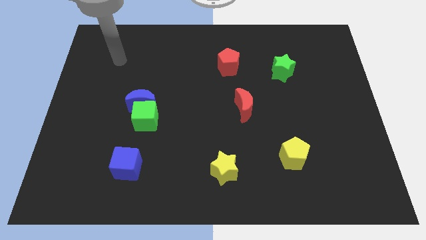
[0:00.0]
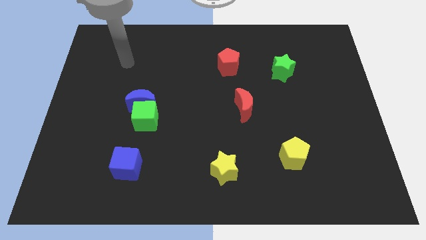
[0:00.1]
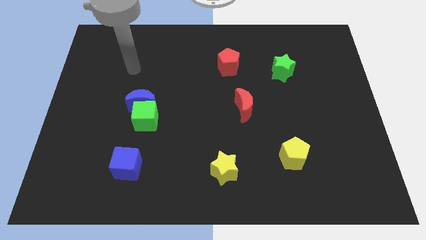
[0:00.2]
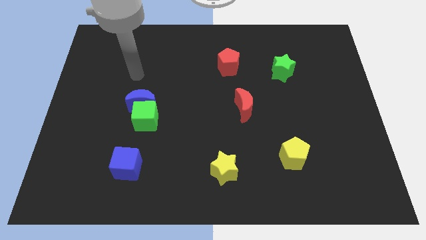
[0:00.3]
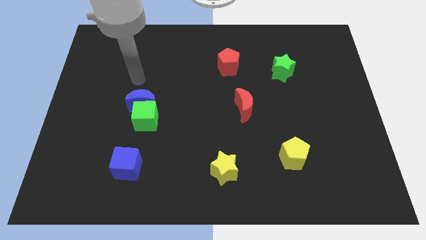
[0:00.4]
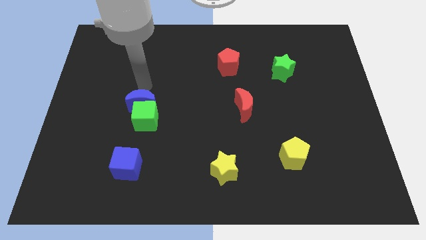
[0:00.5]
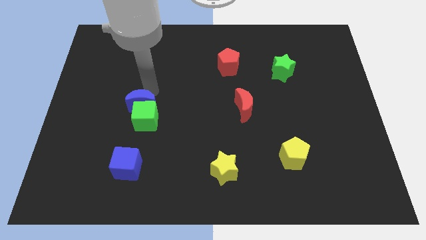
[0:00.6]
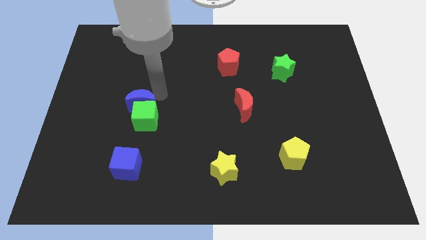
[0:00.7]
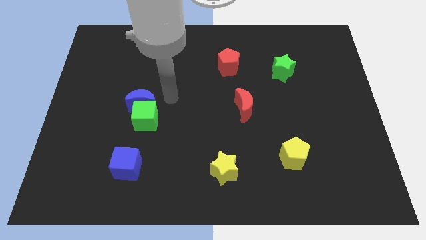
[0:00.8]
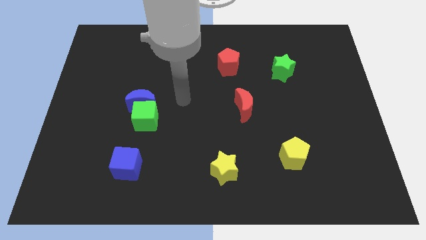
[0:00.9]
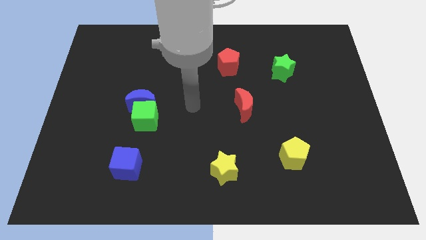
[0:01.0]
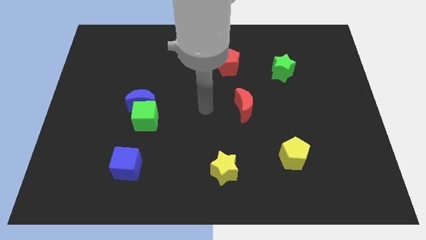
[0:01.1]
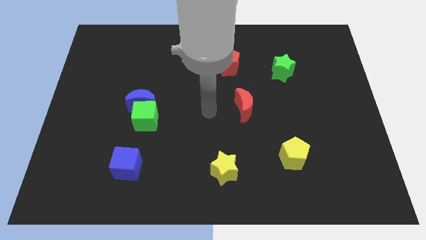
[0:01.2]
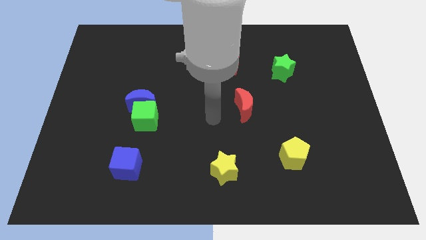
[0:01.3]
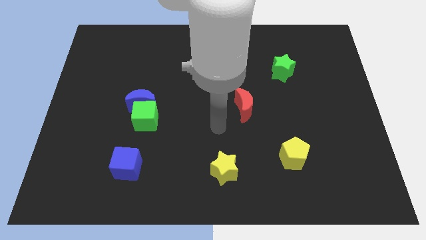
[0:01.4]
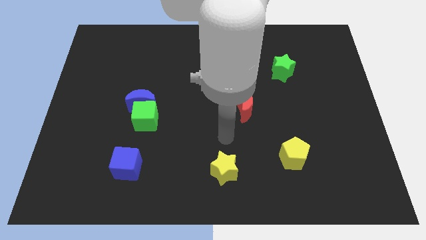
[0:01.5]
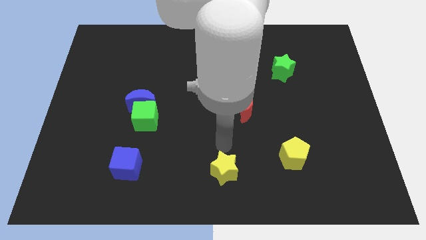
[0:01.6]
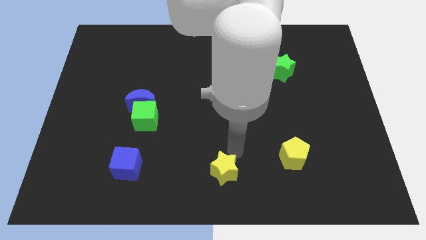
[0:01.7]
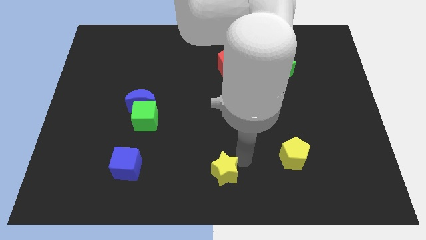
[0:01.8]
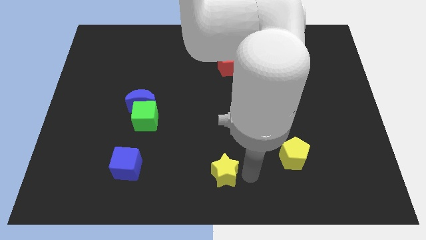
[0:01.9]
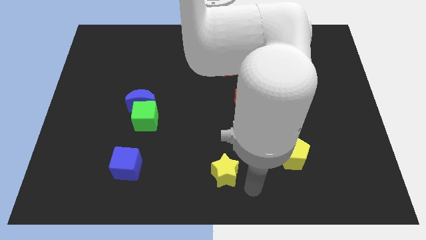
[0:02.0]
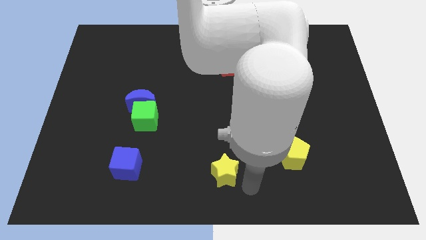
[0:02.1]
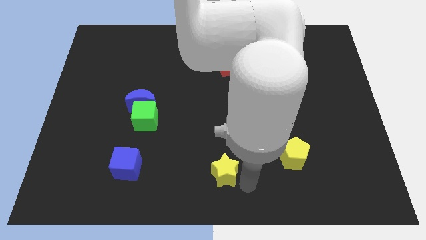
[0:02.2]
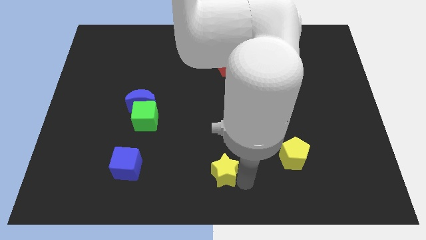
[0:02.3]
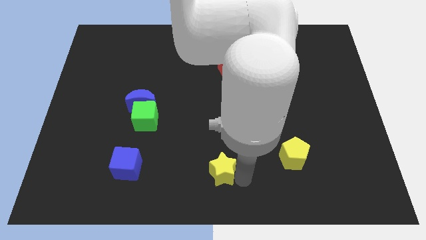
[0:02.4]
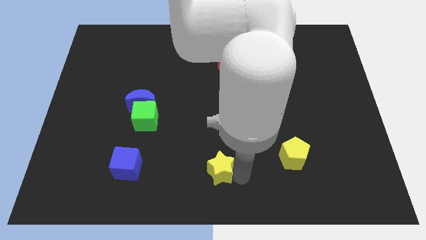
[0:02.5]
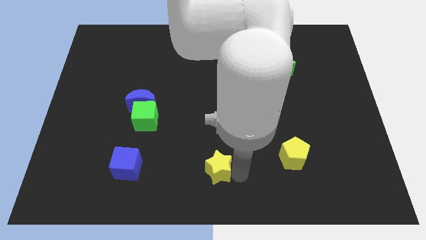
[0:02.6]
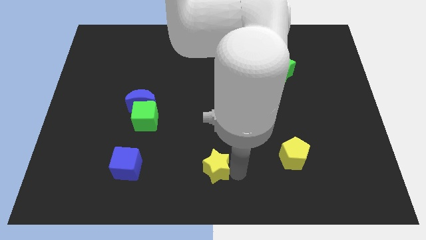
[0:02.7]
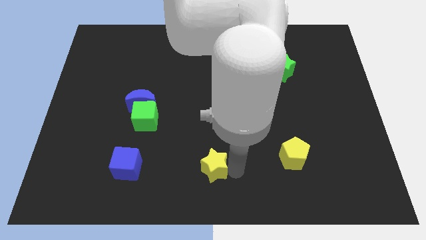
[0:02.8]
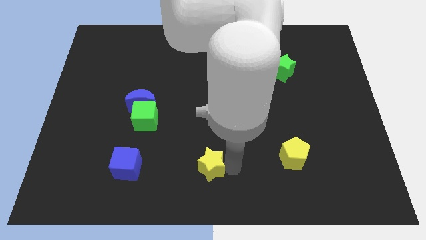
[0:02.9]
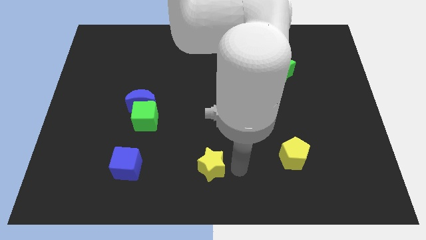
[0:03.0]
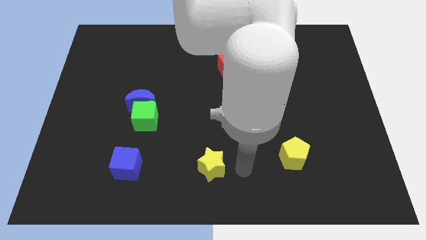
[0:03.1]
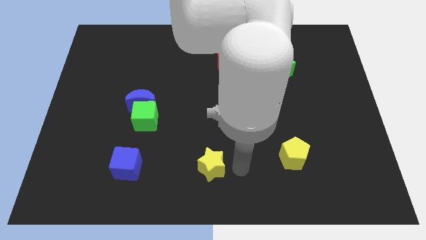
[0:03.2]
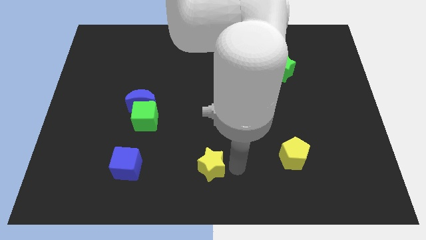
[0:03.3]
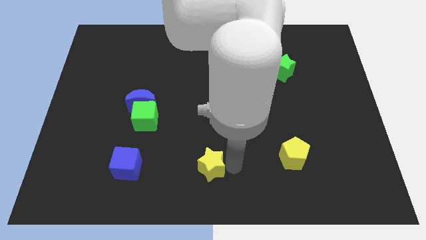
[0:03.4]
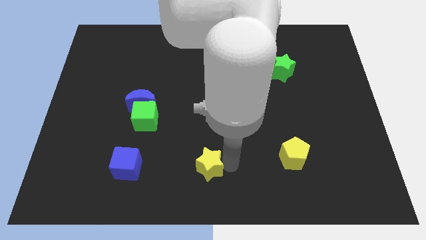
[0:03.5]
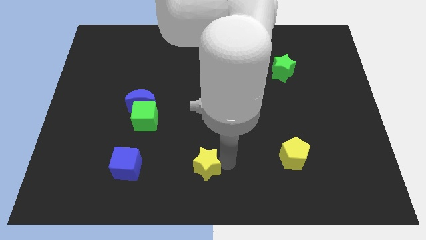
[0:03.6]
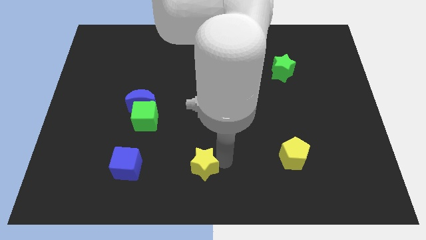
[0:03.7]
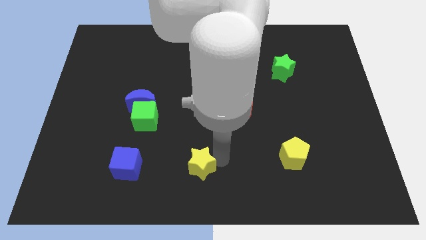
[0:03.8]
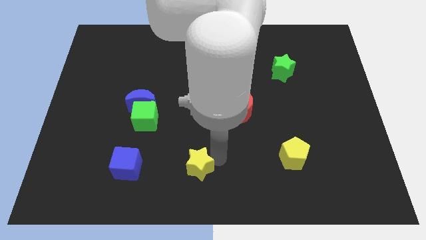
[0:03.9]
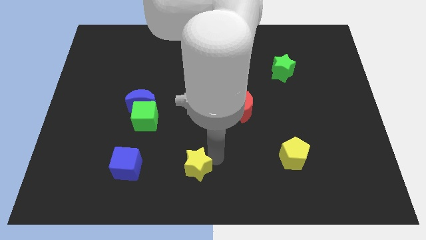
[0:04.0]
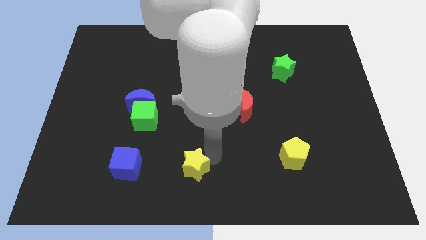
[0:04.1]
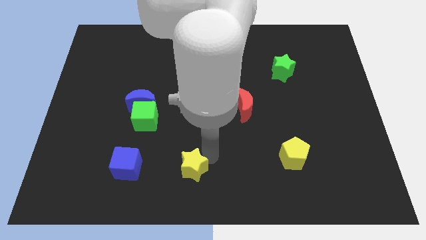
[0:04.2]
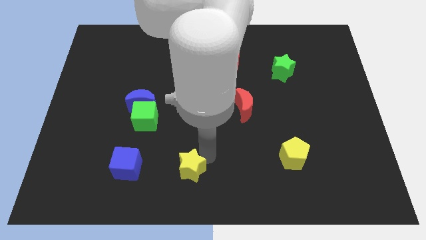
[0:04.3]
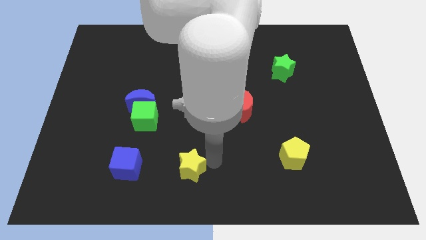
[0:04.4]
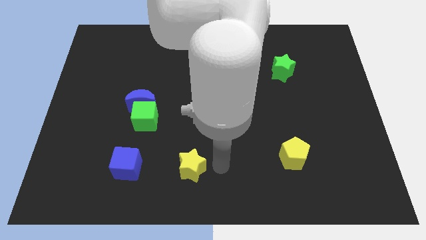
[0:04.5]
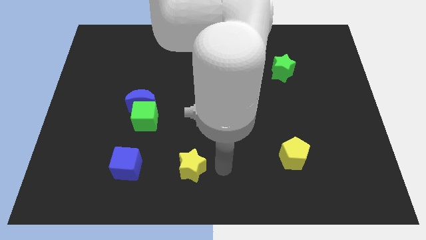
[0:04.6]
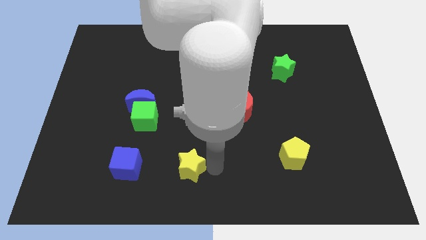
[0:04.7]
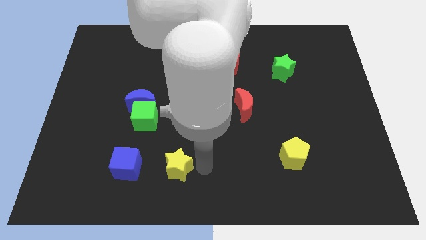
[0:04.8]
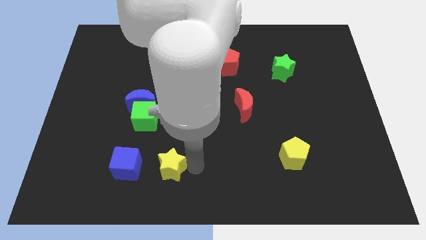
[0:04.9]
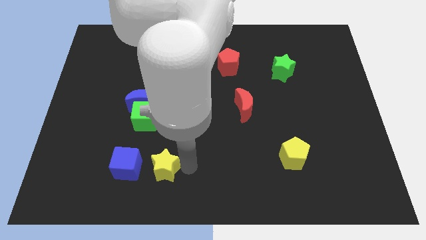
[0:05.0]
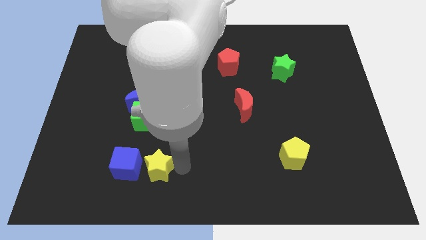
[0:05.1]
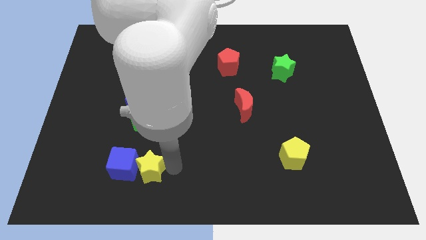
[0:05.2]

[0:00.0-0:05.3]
push the yellow star towards the blue cube

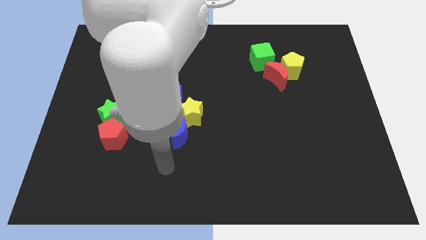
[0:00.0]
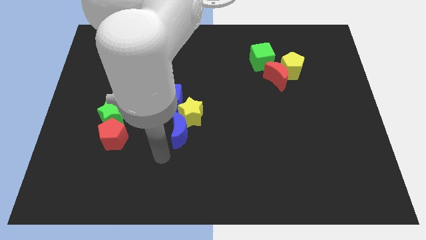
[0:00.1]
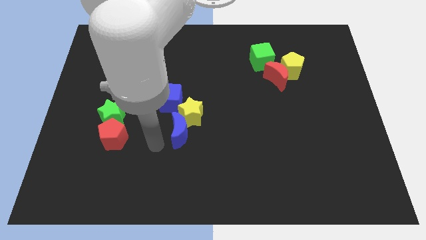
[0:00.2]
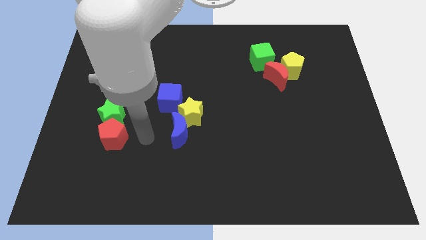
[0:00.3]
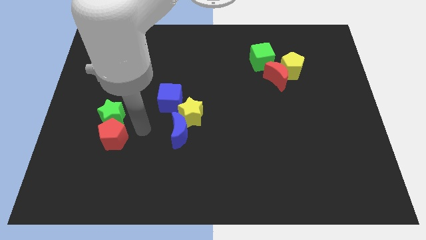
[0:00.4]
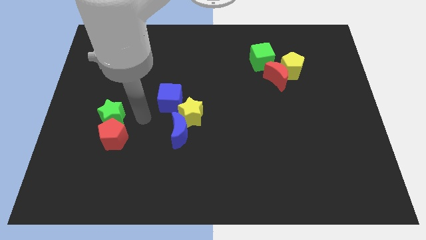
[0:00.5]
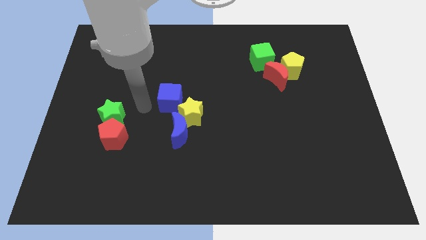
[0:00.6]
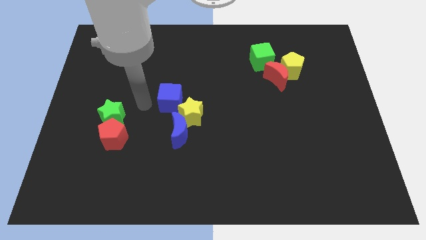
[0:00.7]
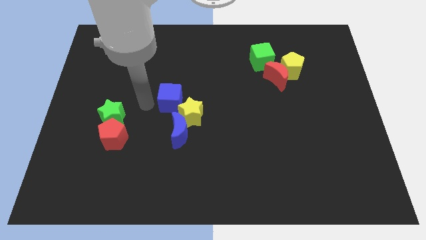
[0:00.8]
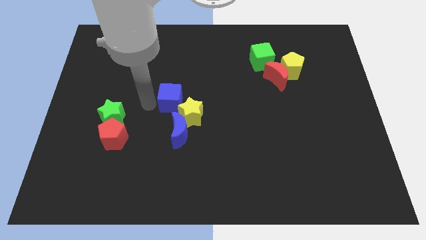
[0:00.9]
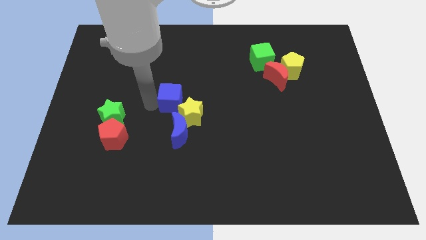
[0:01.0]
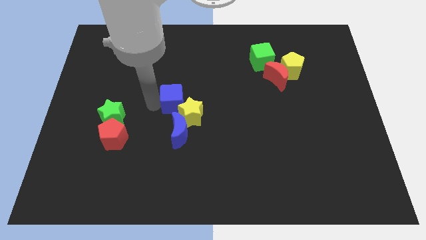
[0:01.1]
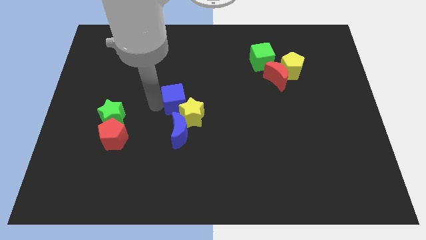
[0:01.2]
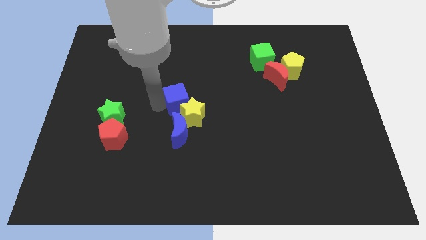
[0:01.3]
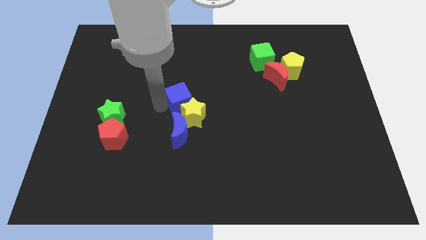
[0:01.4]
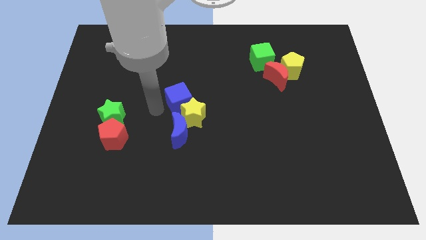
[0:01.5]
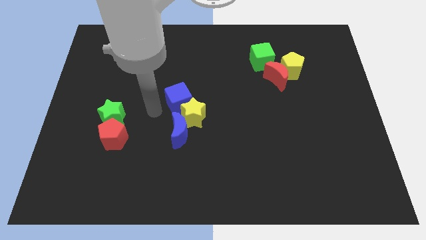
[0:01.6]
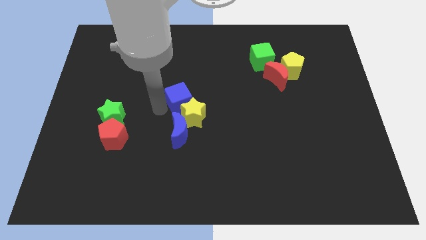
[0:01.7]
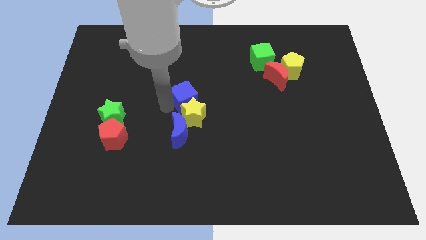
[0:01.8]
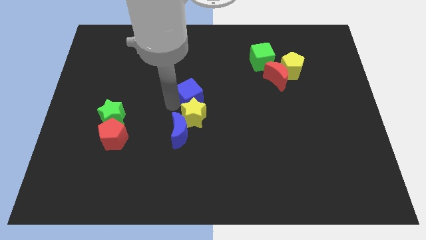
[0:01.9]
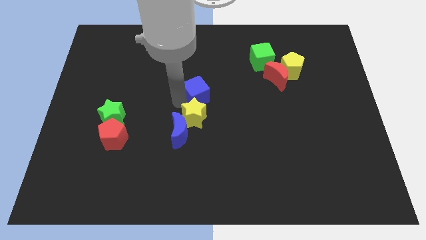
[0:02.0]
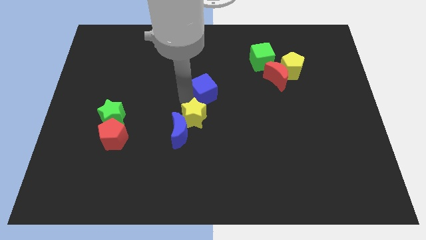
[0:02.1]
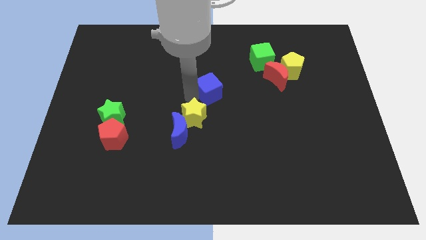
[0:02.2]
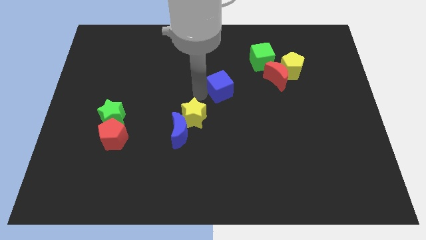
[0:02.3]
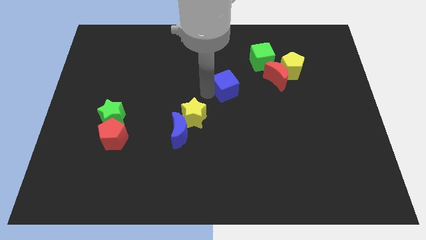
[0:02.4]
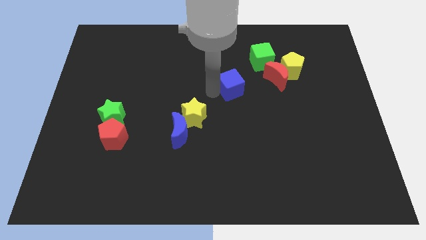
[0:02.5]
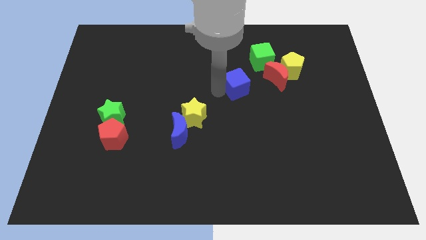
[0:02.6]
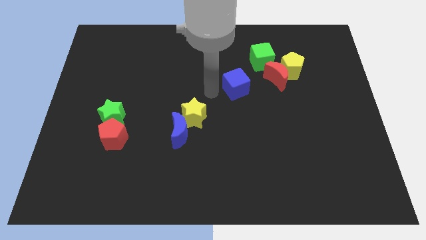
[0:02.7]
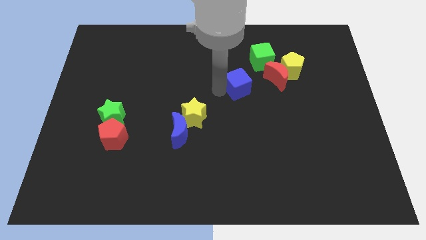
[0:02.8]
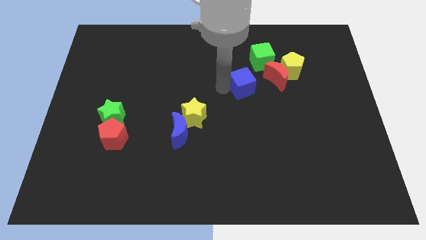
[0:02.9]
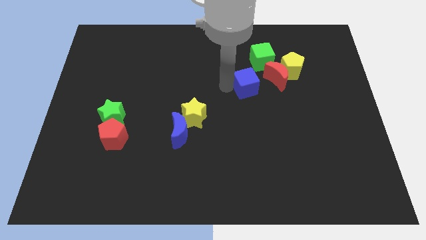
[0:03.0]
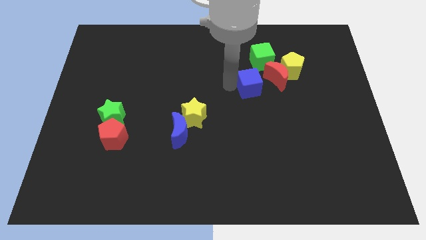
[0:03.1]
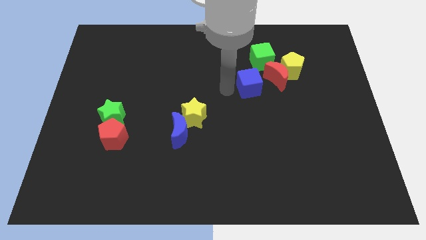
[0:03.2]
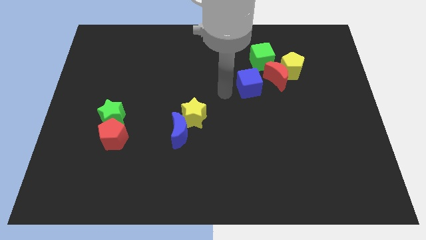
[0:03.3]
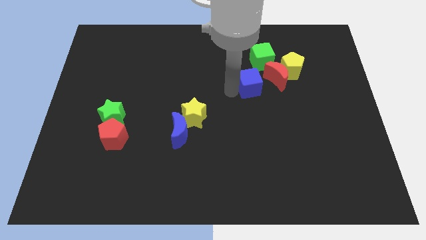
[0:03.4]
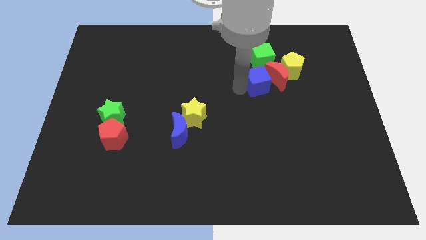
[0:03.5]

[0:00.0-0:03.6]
move the blue cube to the red moon
